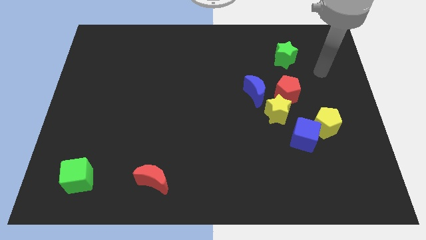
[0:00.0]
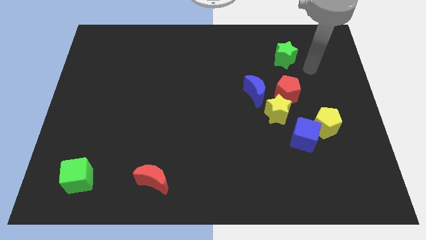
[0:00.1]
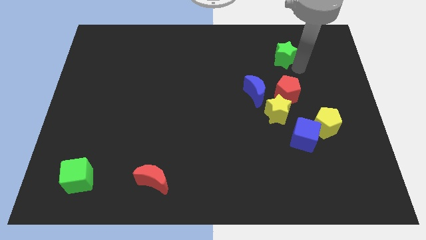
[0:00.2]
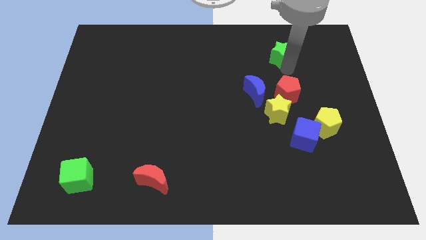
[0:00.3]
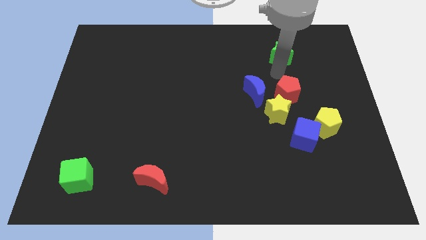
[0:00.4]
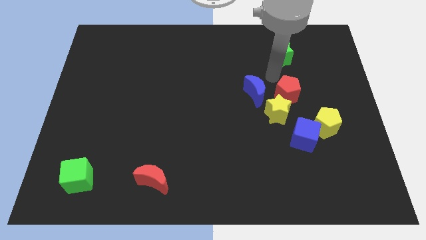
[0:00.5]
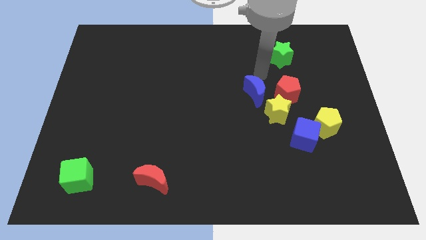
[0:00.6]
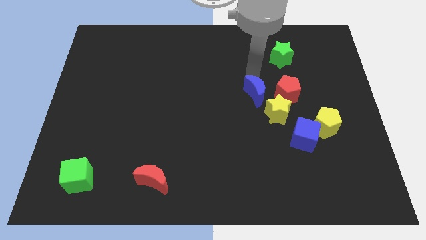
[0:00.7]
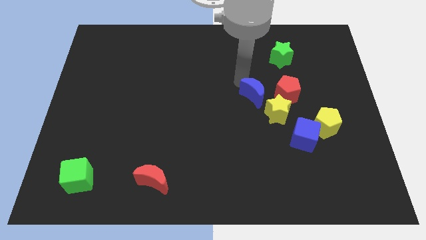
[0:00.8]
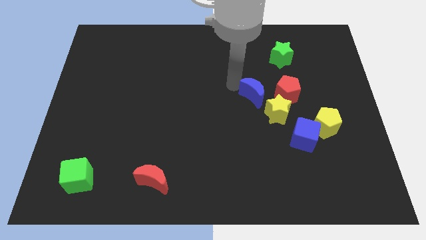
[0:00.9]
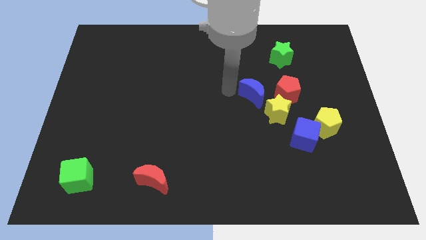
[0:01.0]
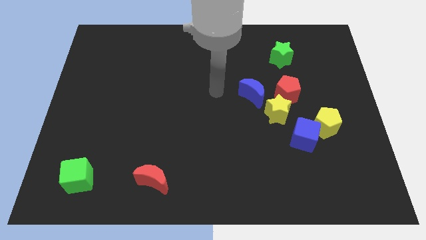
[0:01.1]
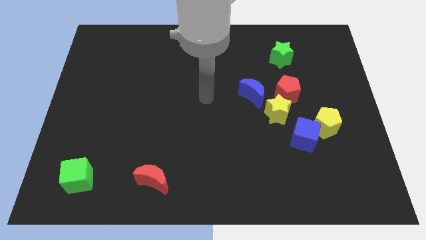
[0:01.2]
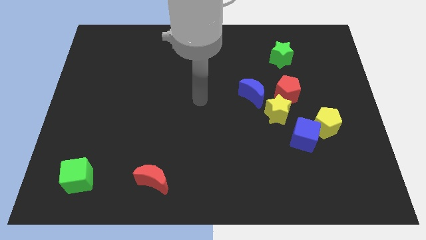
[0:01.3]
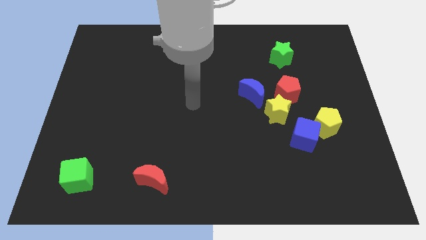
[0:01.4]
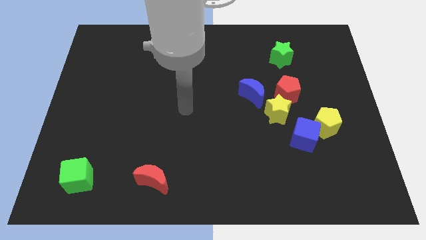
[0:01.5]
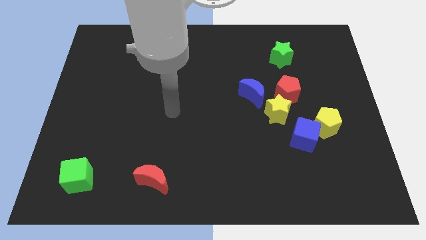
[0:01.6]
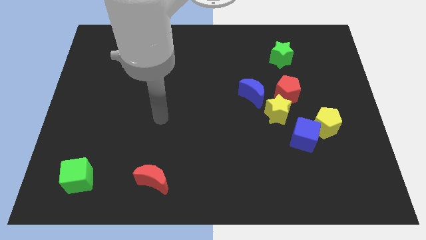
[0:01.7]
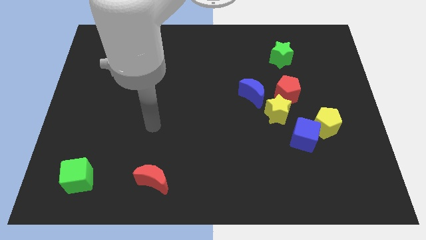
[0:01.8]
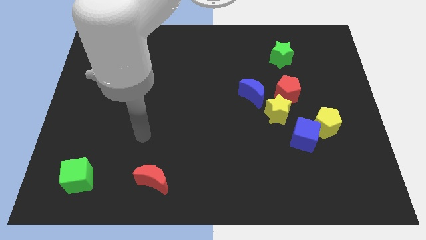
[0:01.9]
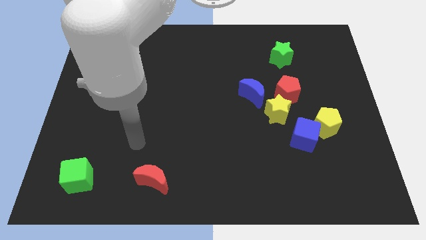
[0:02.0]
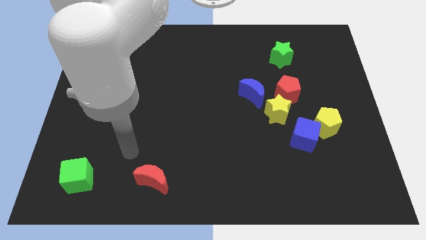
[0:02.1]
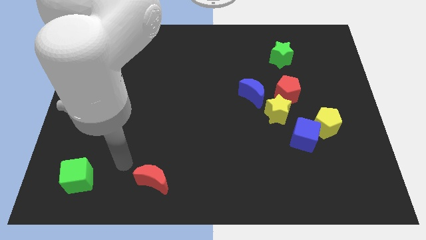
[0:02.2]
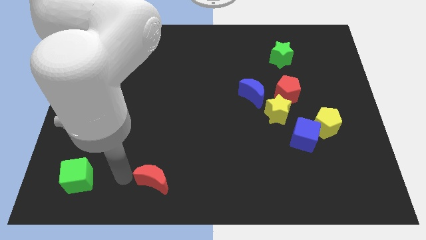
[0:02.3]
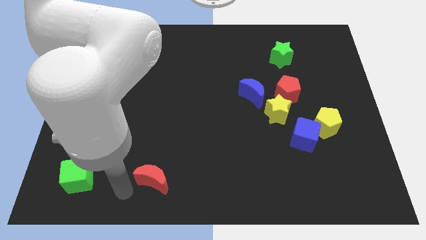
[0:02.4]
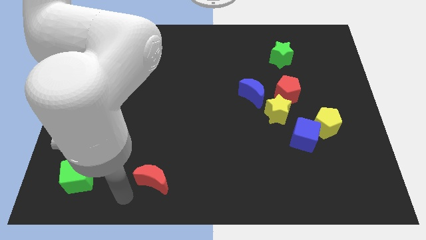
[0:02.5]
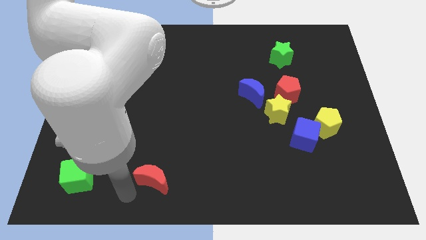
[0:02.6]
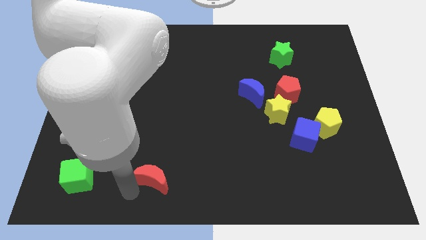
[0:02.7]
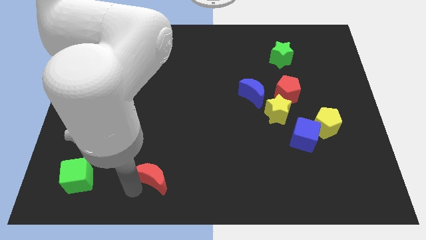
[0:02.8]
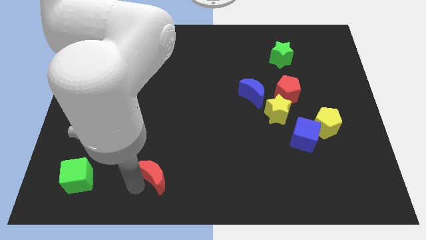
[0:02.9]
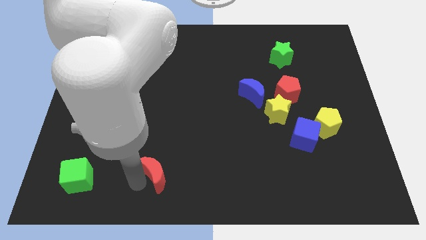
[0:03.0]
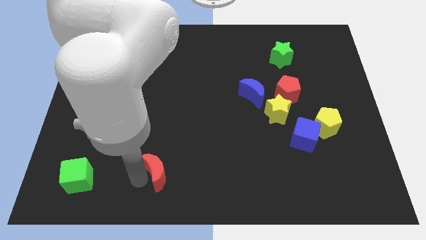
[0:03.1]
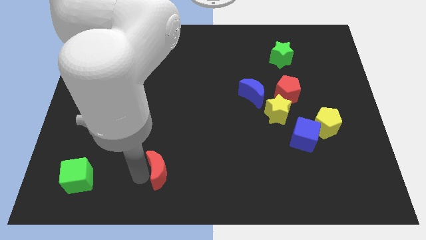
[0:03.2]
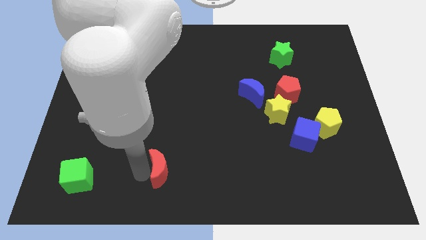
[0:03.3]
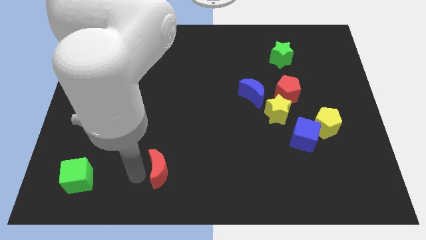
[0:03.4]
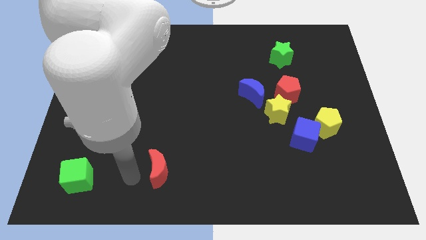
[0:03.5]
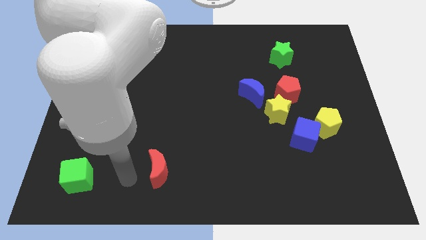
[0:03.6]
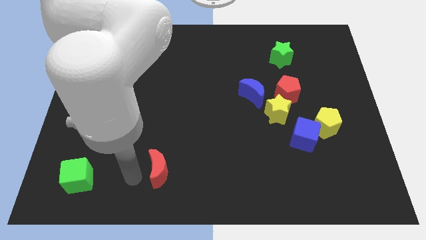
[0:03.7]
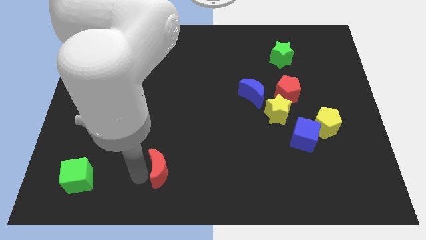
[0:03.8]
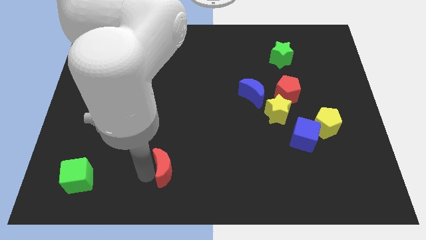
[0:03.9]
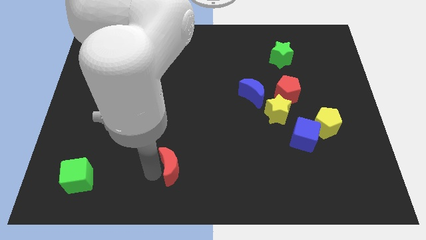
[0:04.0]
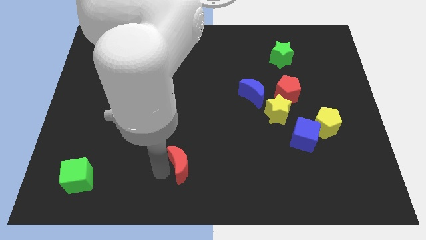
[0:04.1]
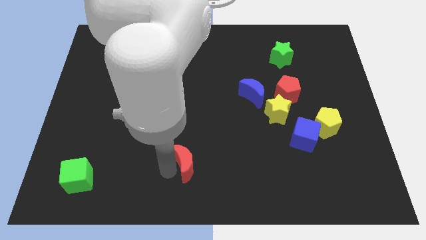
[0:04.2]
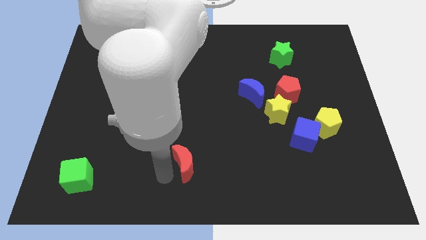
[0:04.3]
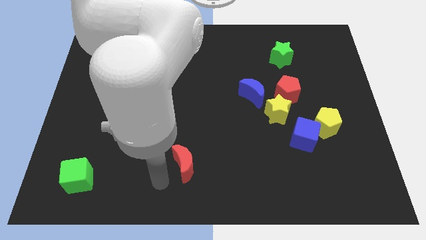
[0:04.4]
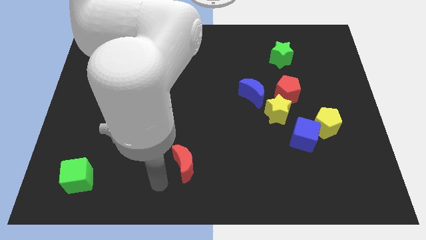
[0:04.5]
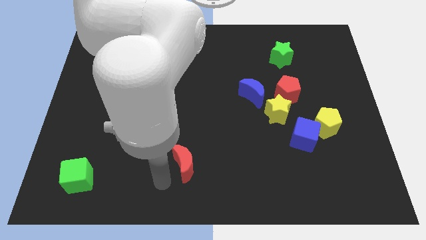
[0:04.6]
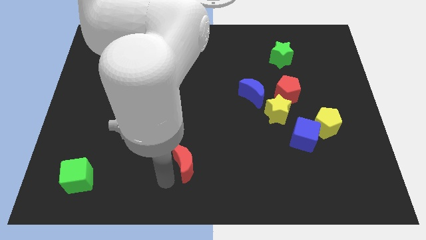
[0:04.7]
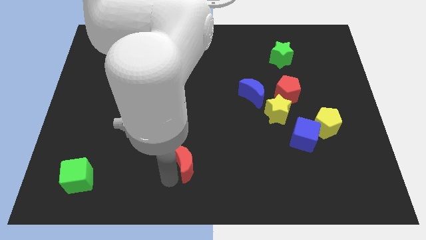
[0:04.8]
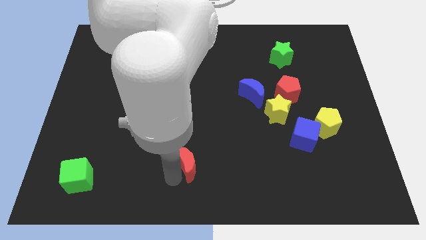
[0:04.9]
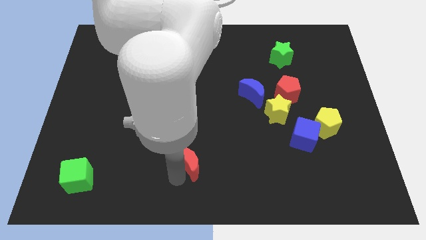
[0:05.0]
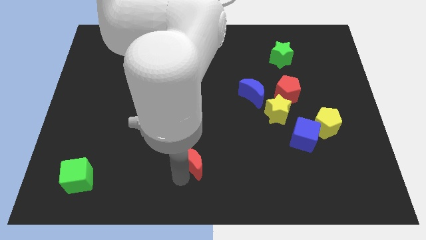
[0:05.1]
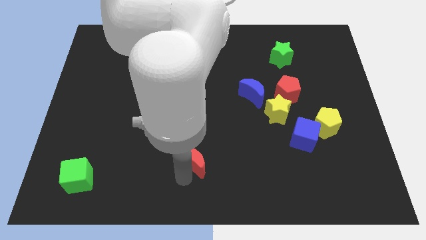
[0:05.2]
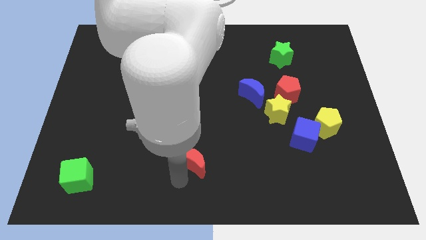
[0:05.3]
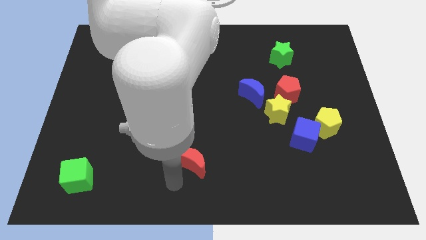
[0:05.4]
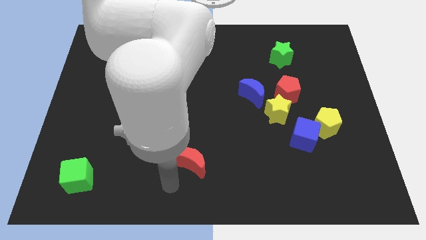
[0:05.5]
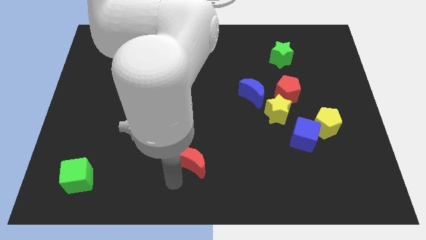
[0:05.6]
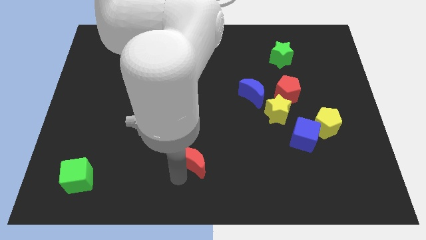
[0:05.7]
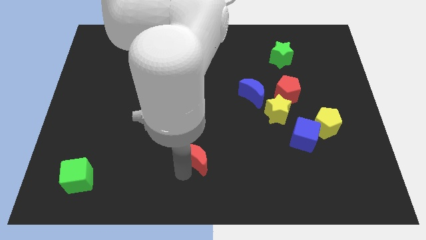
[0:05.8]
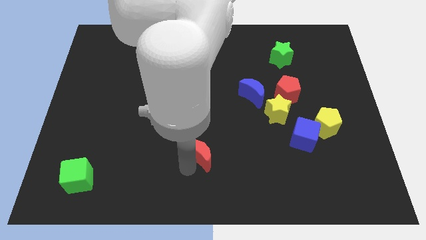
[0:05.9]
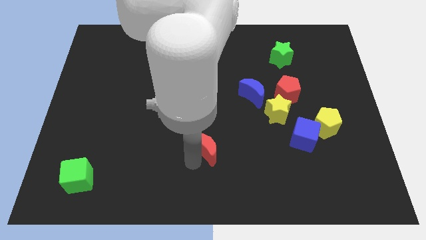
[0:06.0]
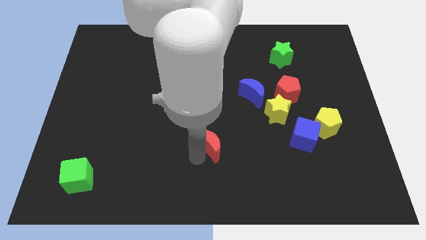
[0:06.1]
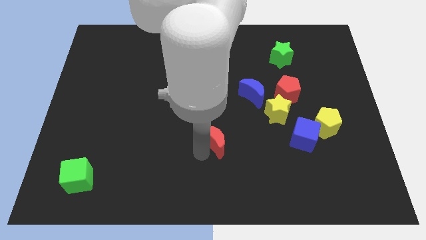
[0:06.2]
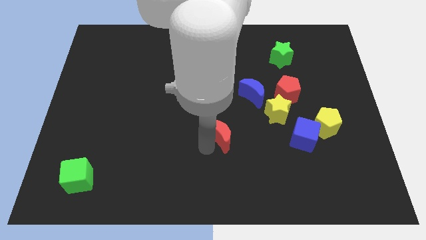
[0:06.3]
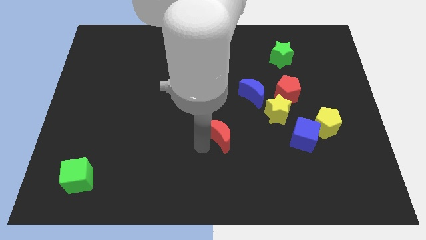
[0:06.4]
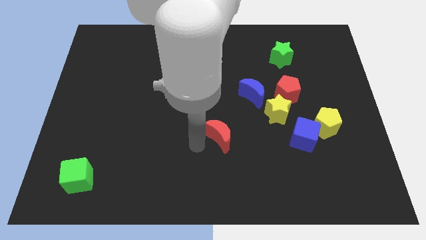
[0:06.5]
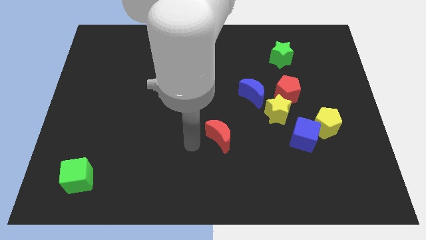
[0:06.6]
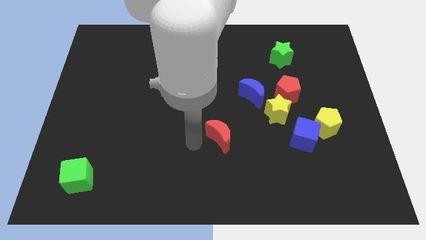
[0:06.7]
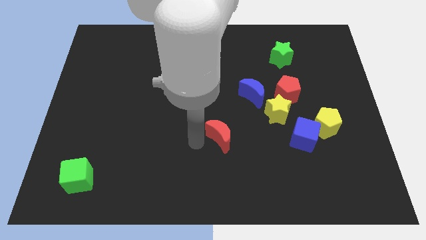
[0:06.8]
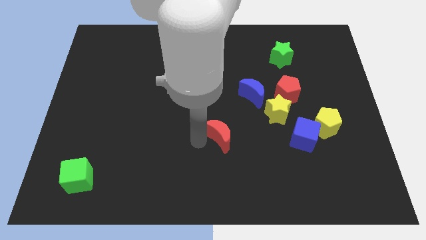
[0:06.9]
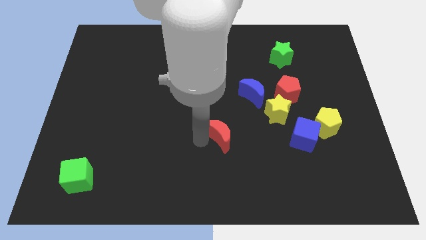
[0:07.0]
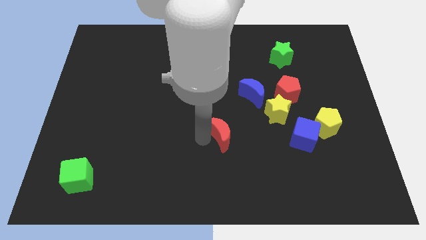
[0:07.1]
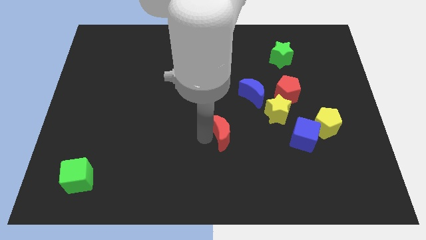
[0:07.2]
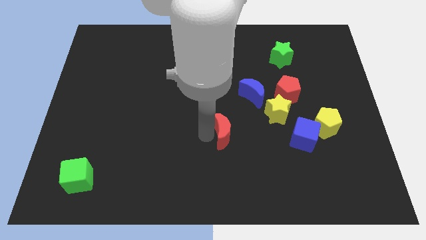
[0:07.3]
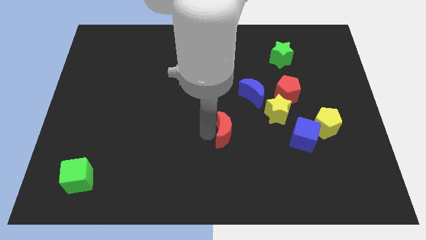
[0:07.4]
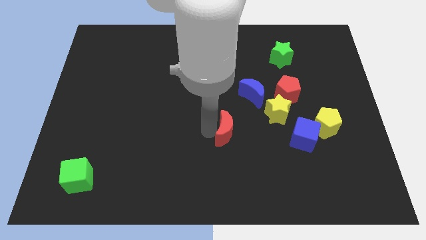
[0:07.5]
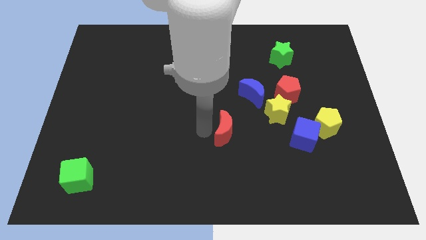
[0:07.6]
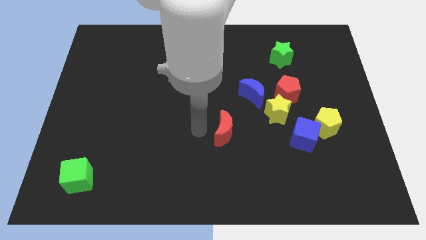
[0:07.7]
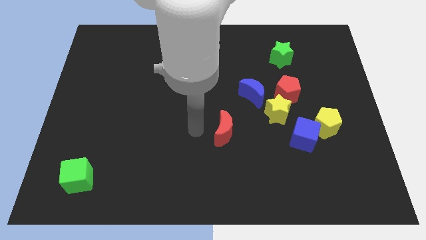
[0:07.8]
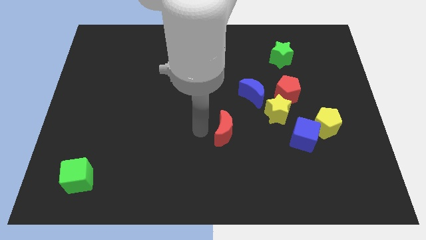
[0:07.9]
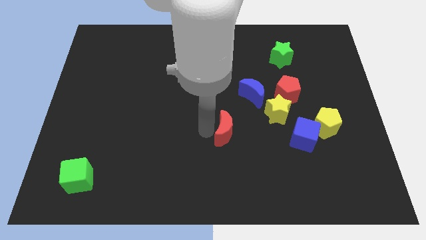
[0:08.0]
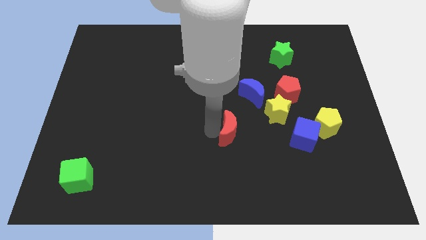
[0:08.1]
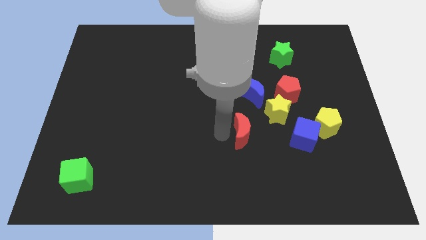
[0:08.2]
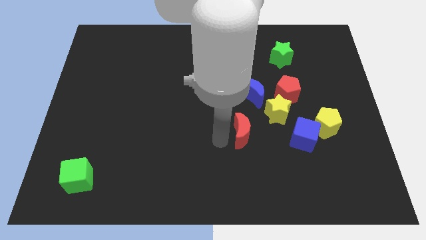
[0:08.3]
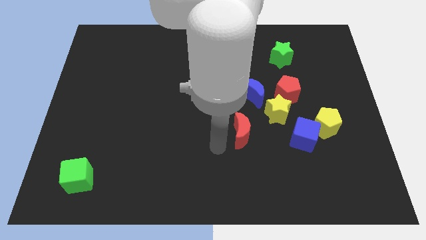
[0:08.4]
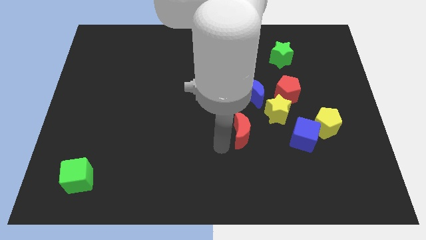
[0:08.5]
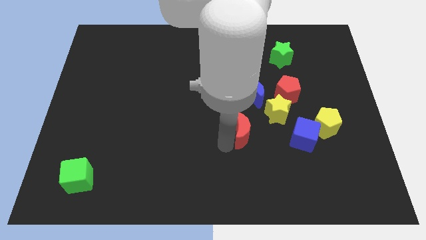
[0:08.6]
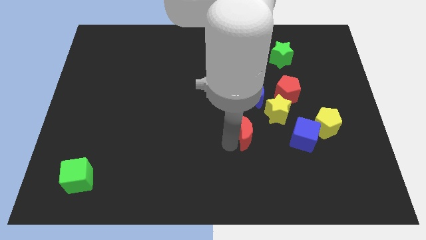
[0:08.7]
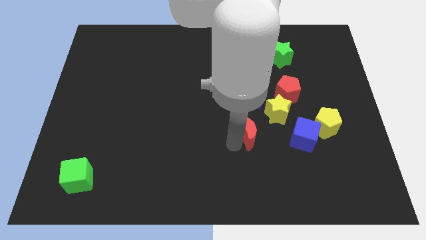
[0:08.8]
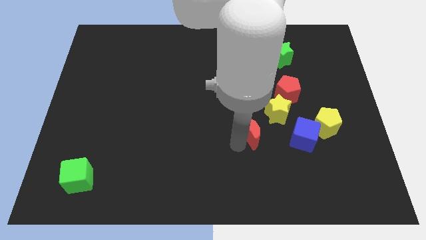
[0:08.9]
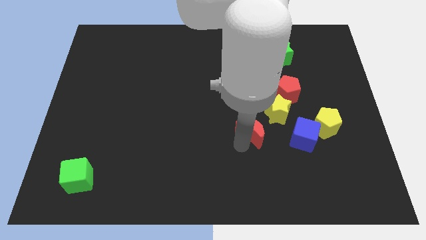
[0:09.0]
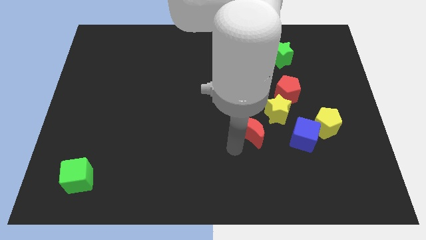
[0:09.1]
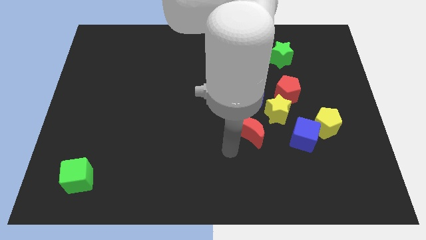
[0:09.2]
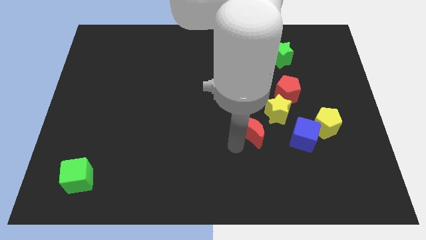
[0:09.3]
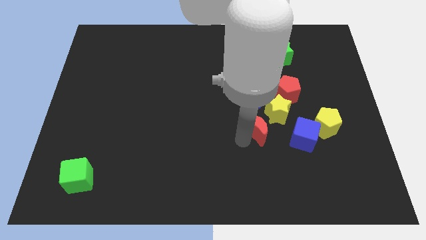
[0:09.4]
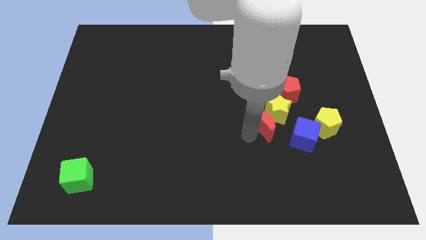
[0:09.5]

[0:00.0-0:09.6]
slide the red moon next to the yellow star
